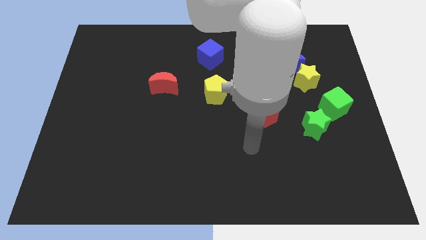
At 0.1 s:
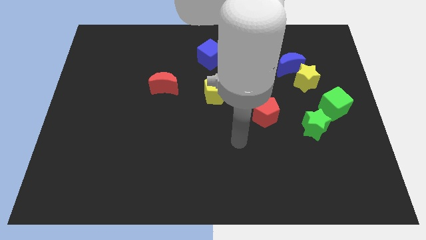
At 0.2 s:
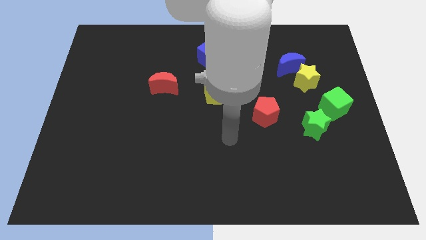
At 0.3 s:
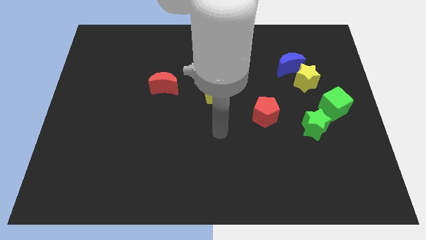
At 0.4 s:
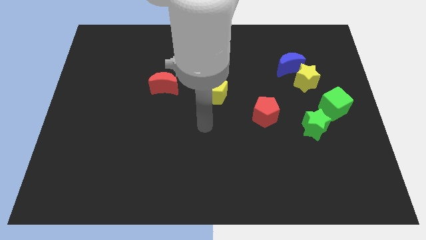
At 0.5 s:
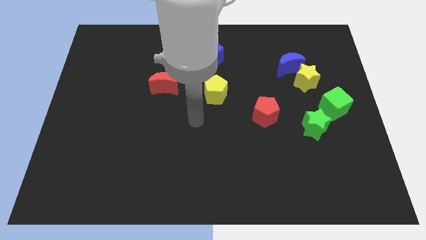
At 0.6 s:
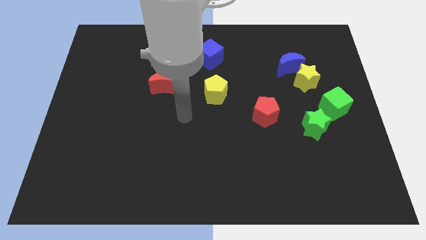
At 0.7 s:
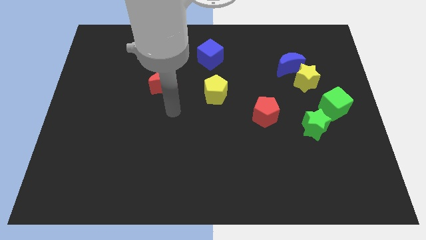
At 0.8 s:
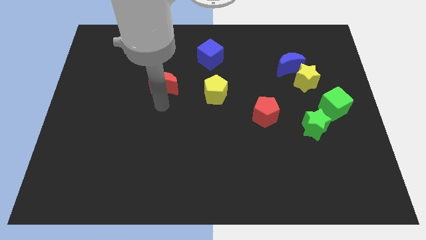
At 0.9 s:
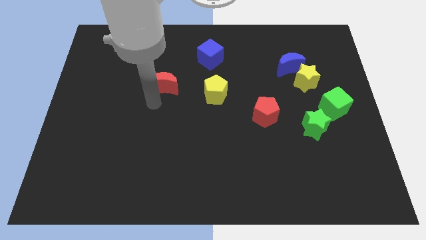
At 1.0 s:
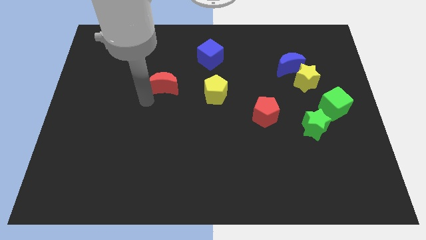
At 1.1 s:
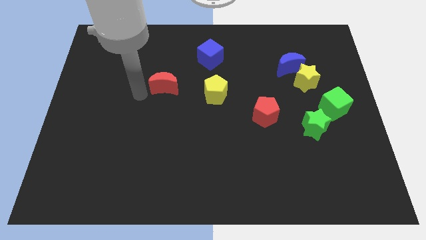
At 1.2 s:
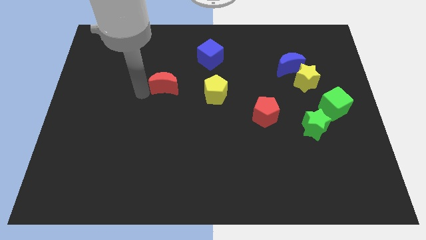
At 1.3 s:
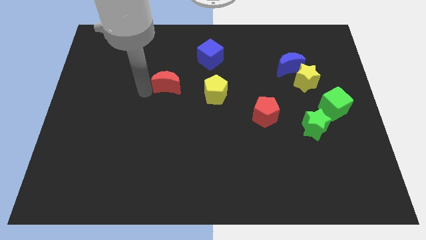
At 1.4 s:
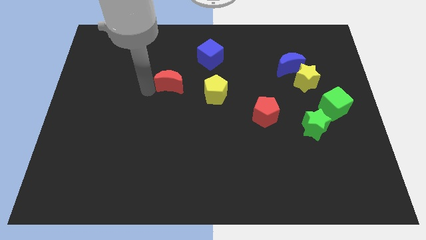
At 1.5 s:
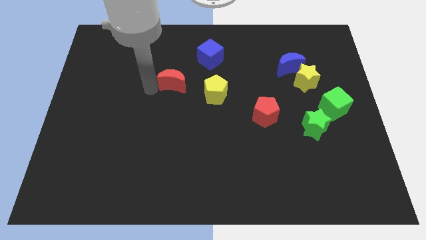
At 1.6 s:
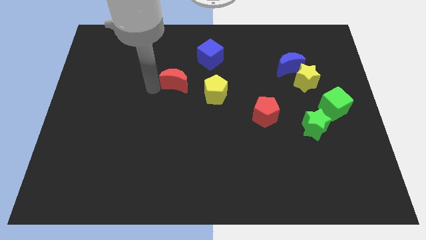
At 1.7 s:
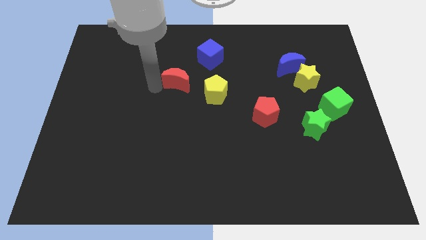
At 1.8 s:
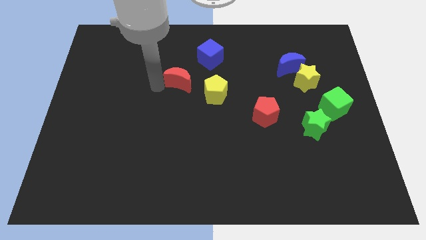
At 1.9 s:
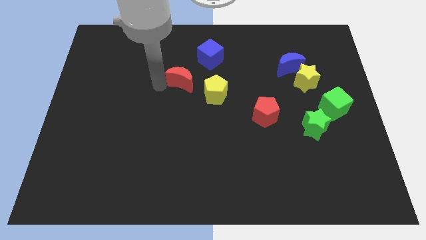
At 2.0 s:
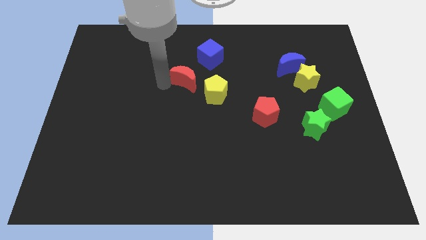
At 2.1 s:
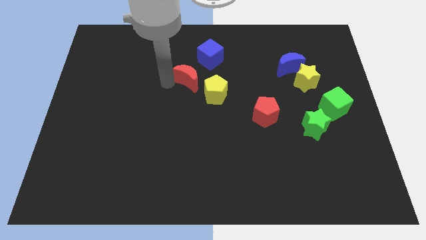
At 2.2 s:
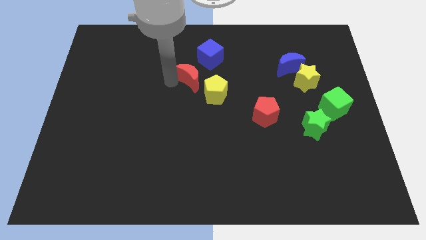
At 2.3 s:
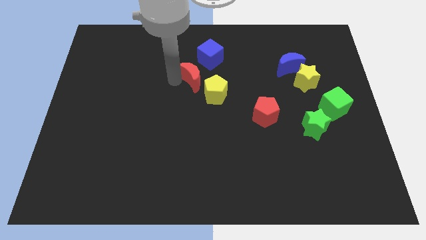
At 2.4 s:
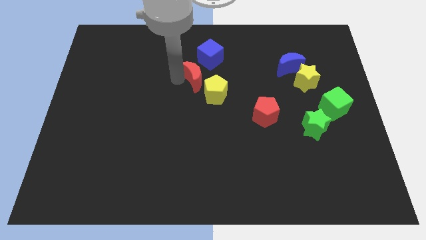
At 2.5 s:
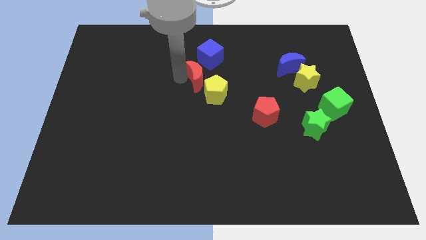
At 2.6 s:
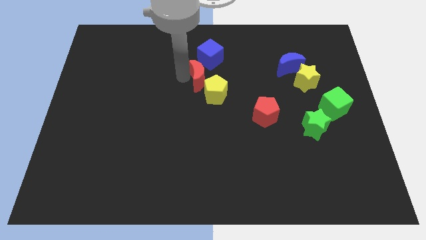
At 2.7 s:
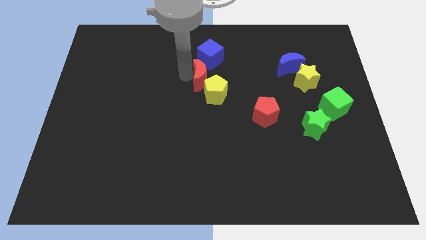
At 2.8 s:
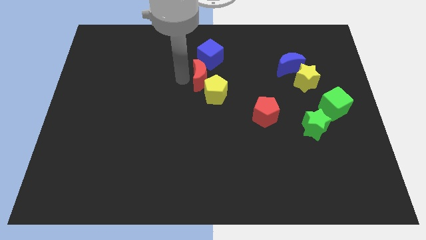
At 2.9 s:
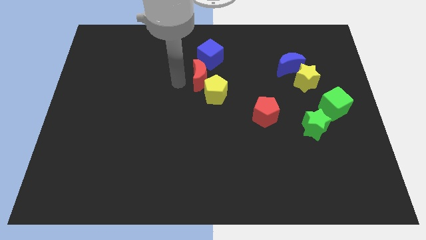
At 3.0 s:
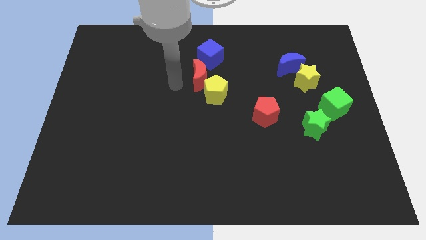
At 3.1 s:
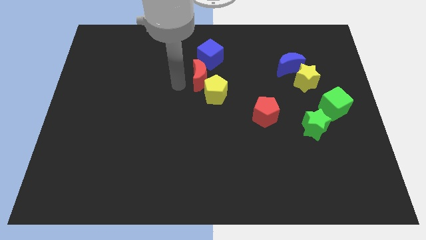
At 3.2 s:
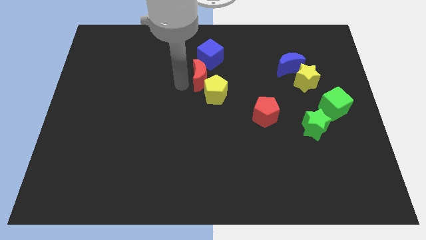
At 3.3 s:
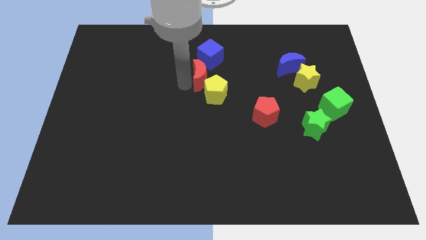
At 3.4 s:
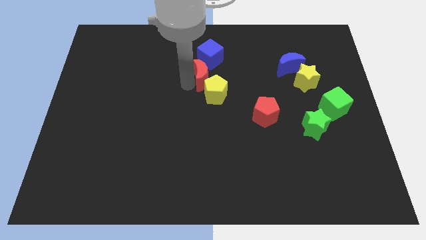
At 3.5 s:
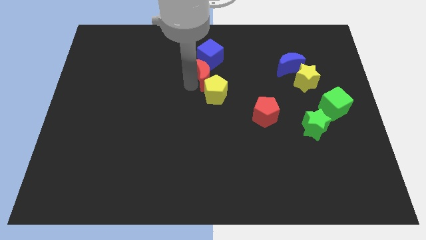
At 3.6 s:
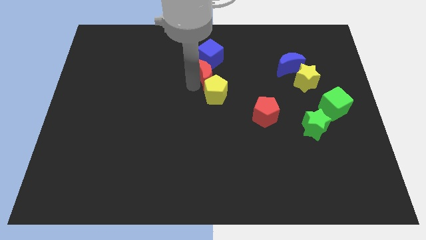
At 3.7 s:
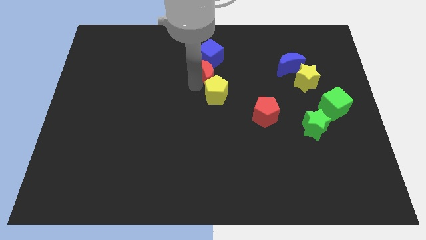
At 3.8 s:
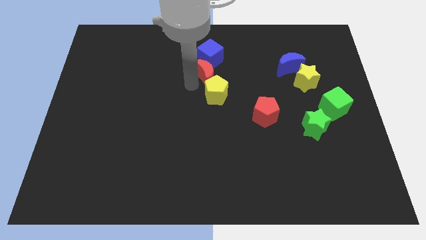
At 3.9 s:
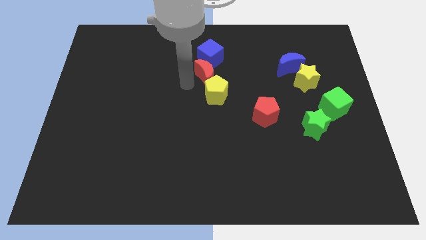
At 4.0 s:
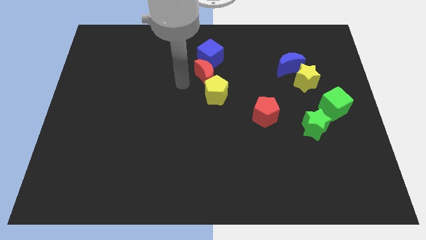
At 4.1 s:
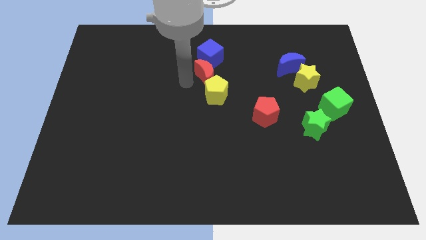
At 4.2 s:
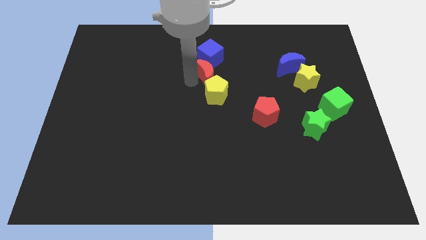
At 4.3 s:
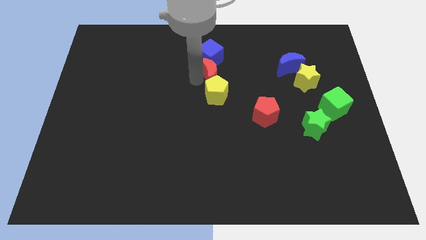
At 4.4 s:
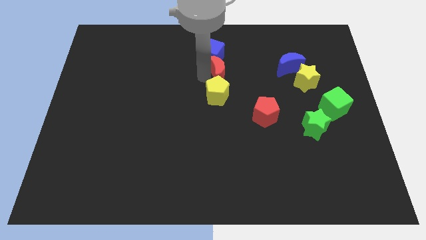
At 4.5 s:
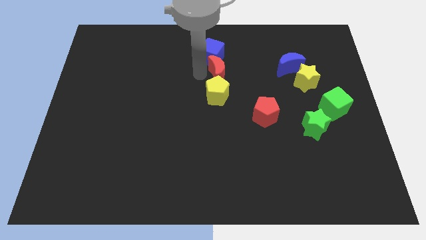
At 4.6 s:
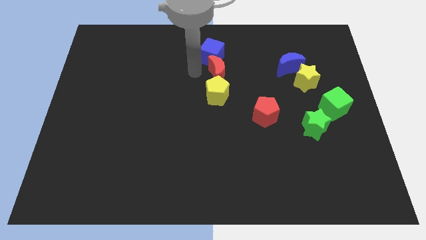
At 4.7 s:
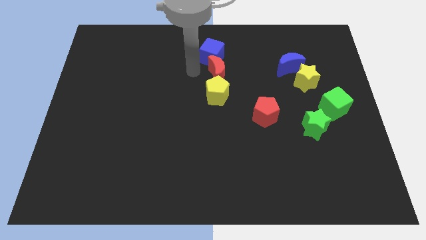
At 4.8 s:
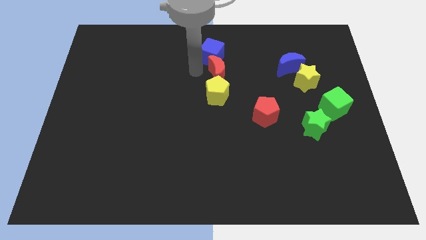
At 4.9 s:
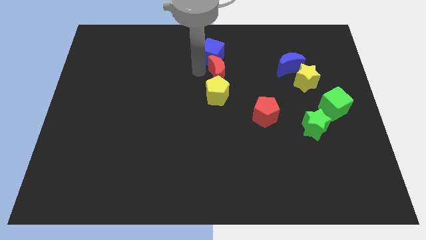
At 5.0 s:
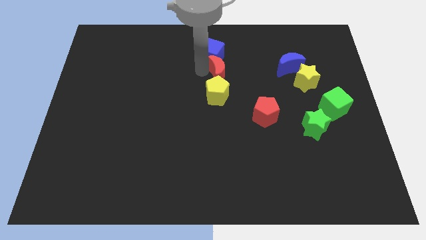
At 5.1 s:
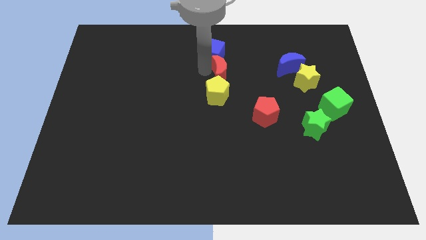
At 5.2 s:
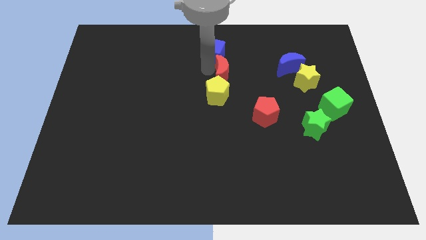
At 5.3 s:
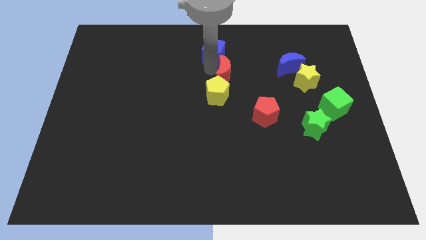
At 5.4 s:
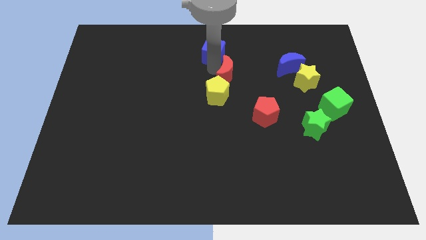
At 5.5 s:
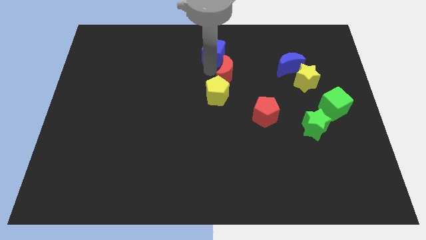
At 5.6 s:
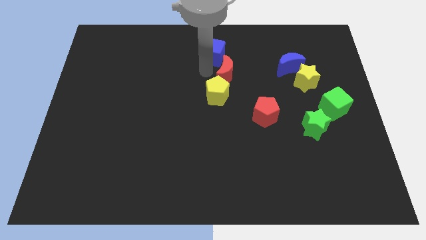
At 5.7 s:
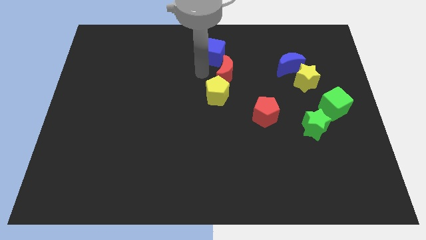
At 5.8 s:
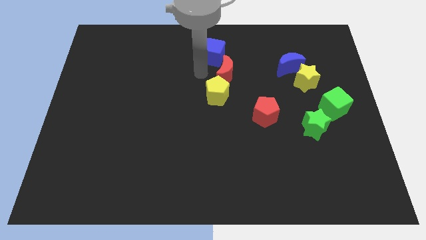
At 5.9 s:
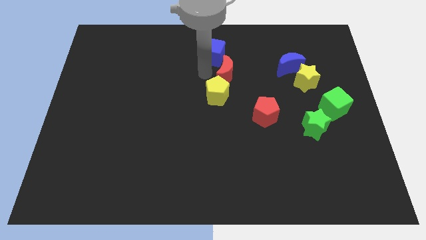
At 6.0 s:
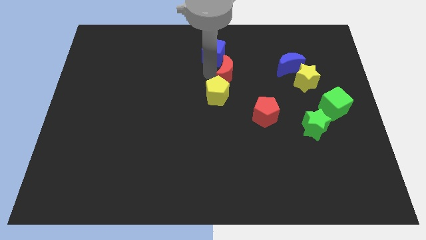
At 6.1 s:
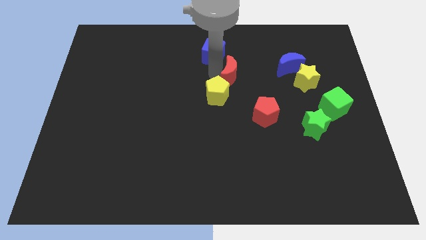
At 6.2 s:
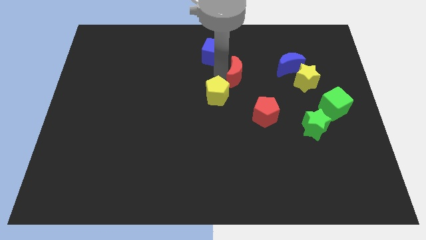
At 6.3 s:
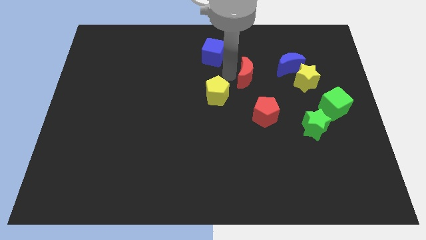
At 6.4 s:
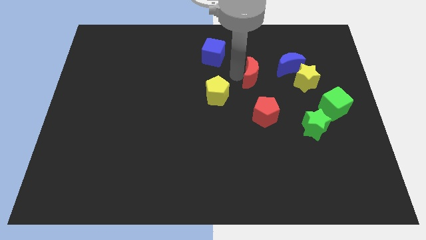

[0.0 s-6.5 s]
put the red moon to the bottom left of the blue moon
